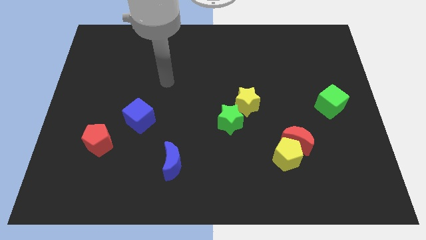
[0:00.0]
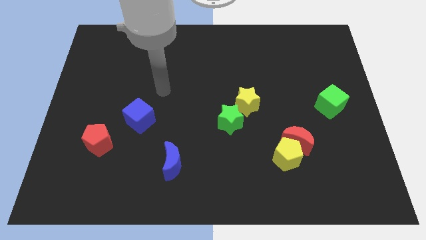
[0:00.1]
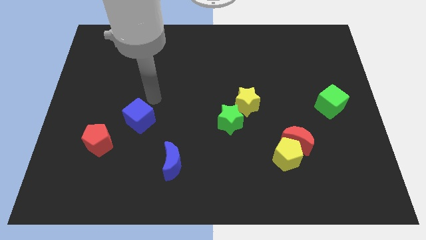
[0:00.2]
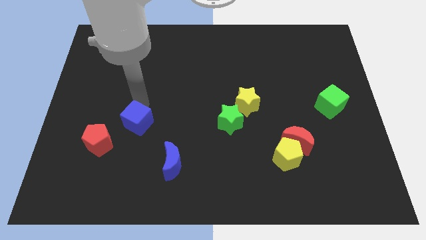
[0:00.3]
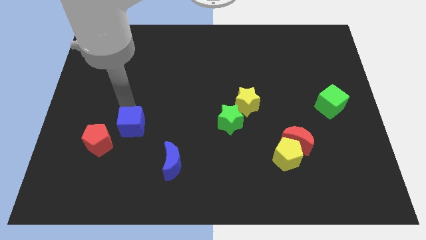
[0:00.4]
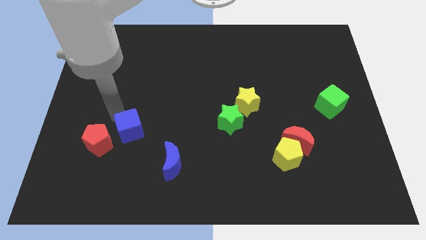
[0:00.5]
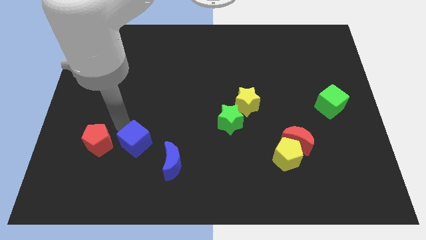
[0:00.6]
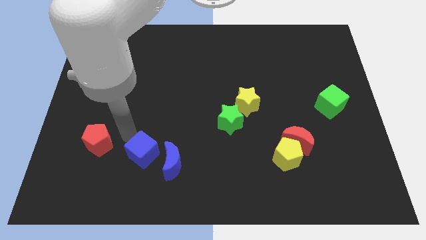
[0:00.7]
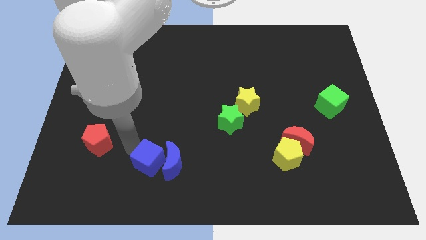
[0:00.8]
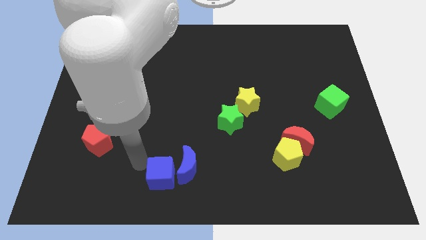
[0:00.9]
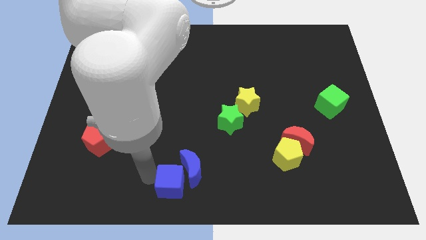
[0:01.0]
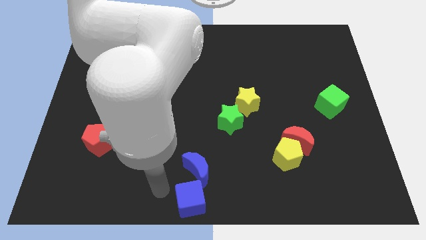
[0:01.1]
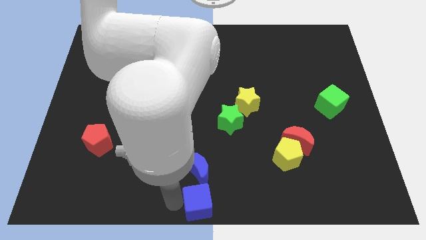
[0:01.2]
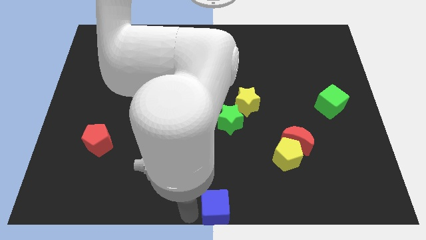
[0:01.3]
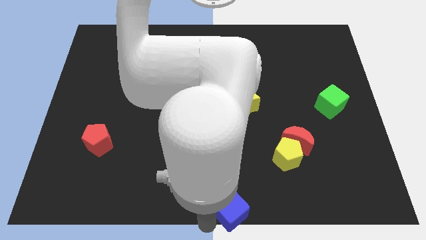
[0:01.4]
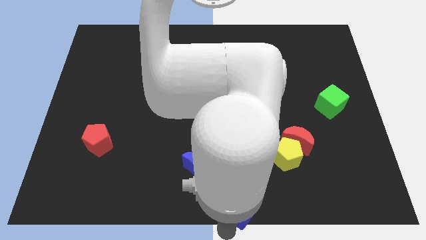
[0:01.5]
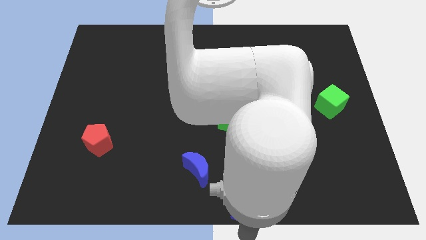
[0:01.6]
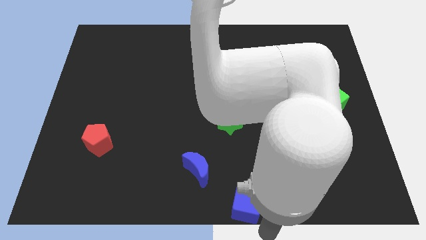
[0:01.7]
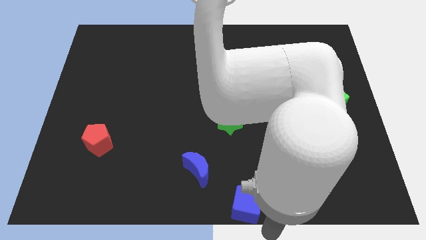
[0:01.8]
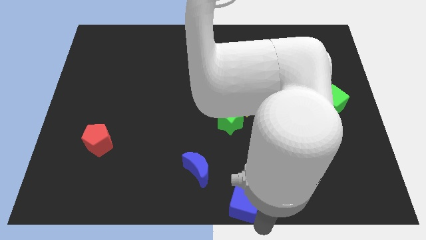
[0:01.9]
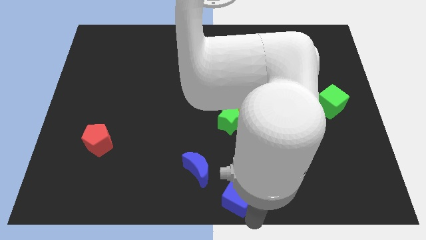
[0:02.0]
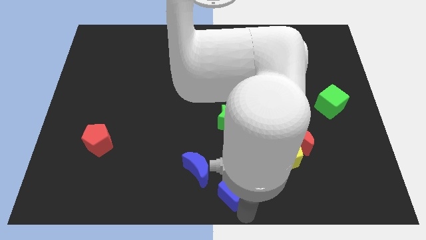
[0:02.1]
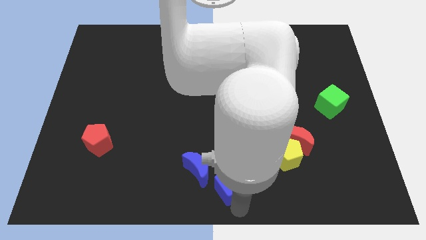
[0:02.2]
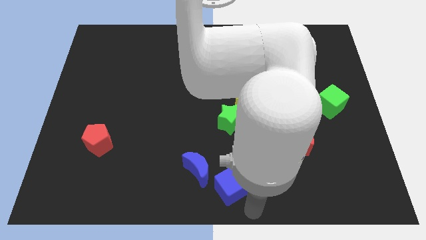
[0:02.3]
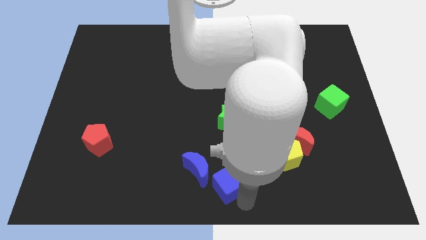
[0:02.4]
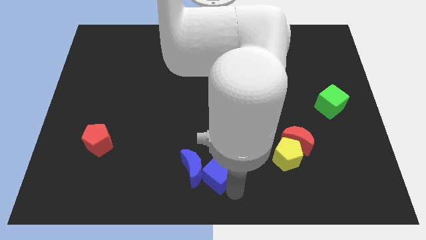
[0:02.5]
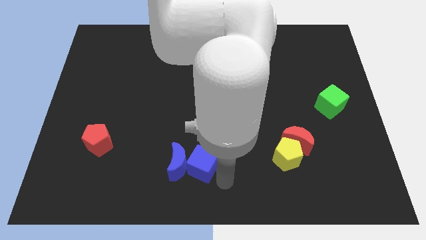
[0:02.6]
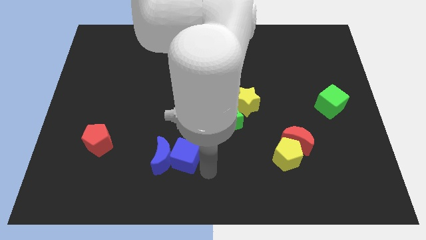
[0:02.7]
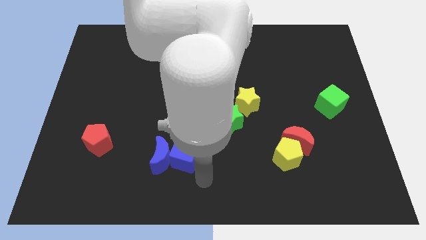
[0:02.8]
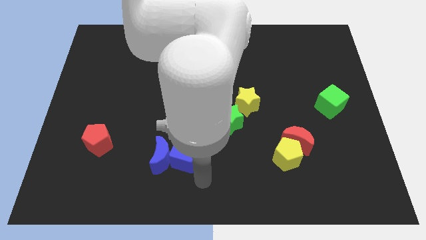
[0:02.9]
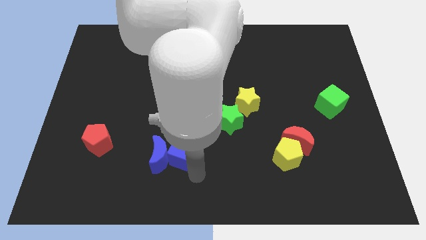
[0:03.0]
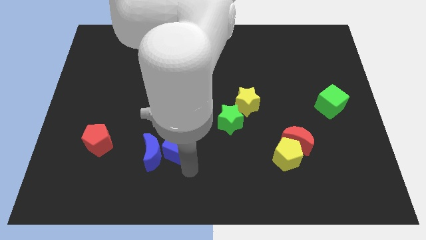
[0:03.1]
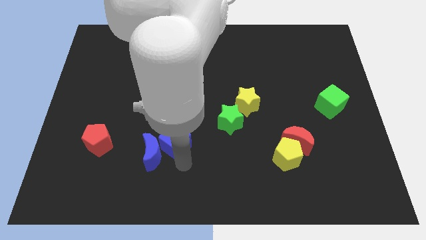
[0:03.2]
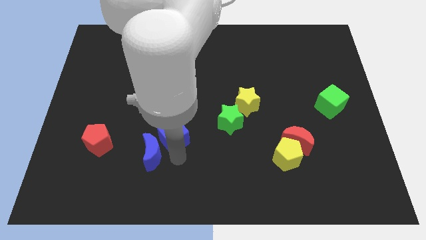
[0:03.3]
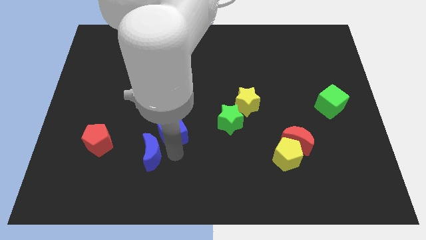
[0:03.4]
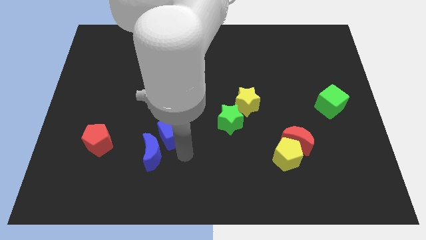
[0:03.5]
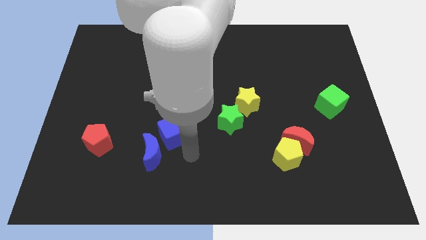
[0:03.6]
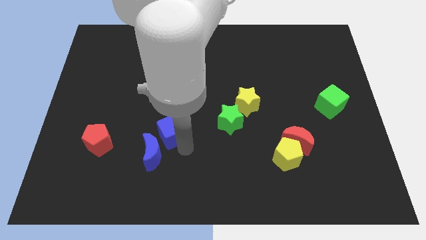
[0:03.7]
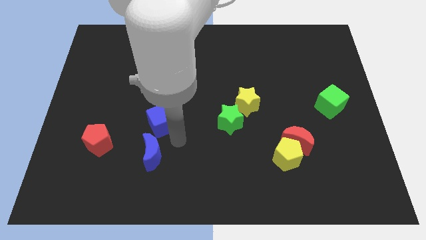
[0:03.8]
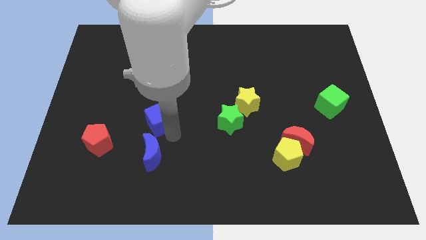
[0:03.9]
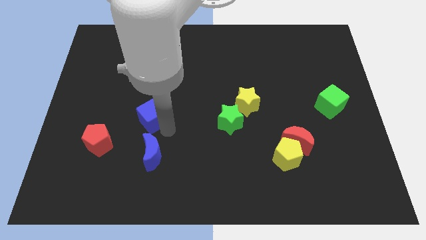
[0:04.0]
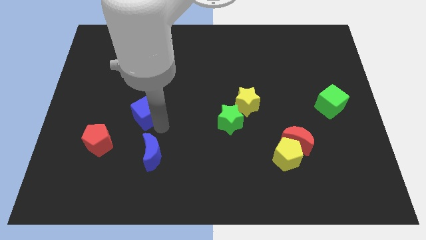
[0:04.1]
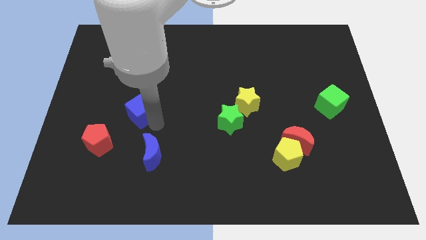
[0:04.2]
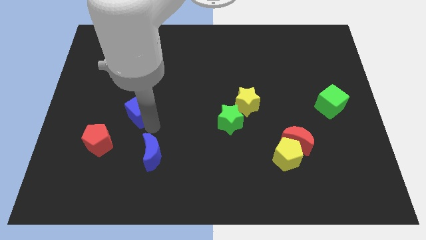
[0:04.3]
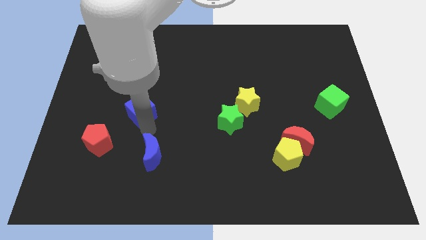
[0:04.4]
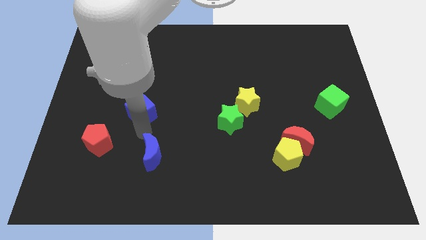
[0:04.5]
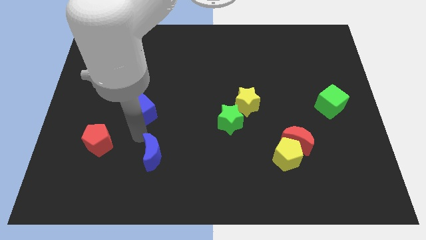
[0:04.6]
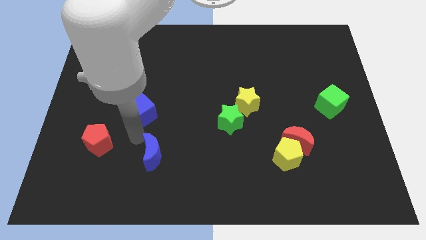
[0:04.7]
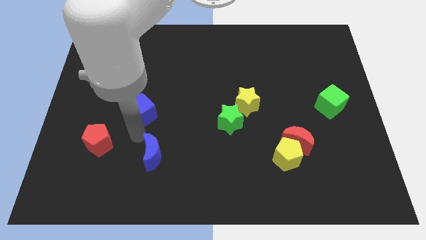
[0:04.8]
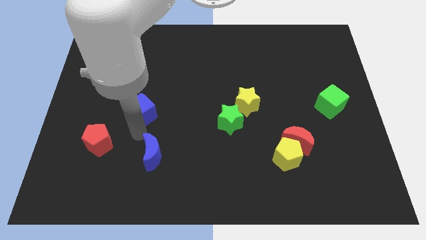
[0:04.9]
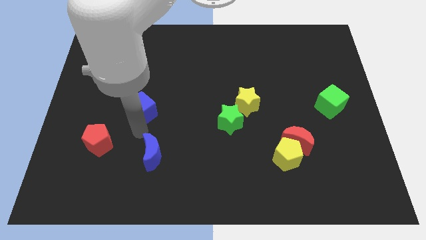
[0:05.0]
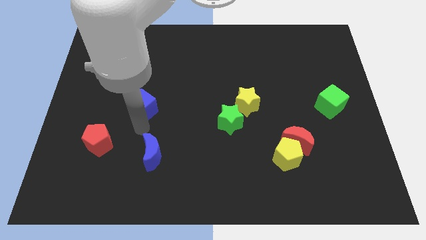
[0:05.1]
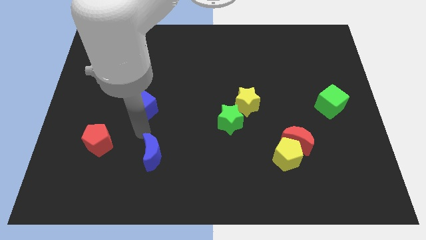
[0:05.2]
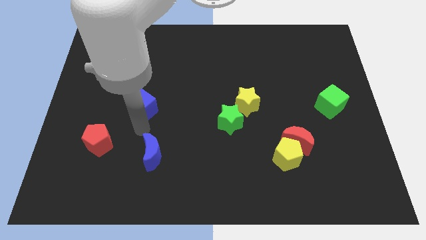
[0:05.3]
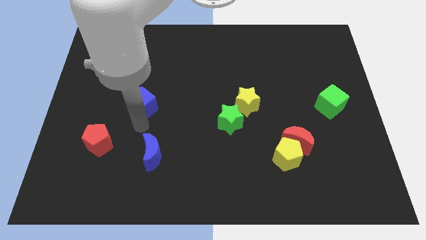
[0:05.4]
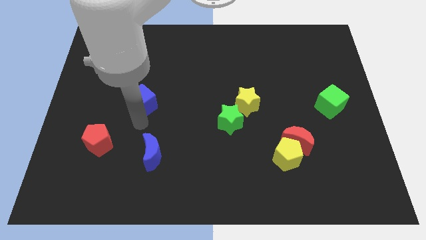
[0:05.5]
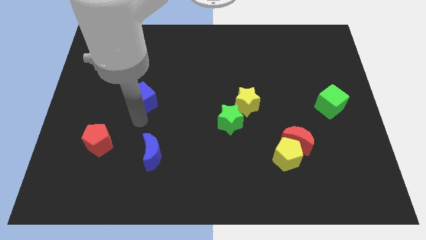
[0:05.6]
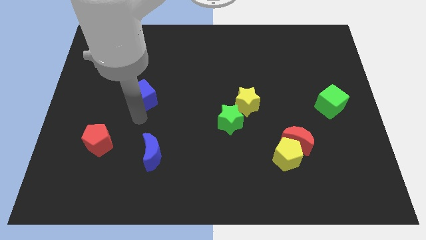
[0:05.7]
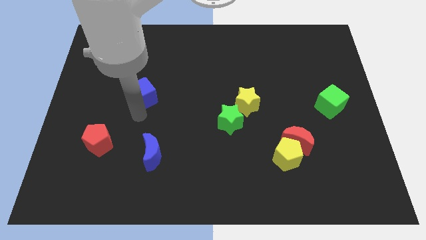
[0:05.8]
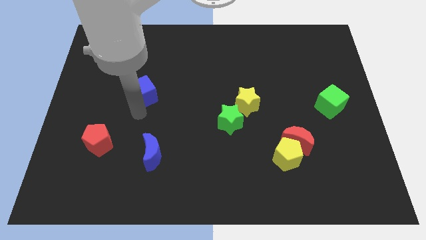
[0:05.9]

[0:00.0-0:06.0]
move the blue cube upwards slightly

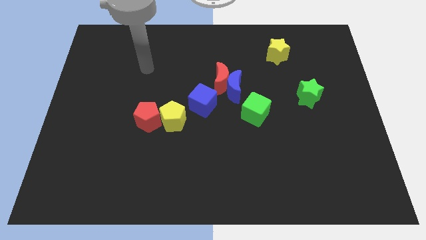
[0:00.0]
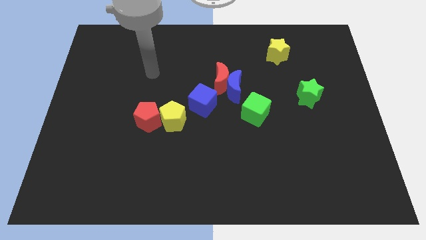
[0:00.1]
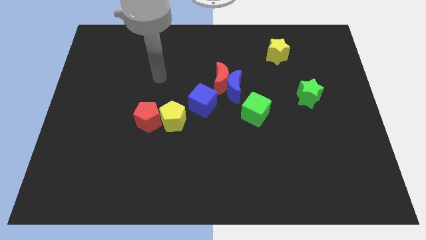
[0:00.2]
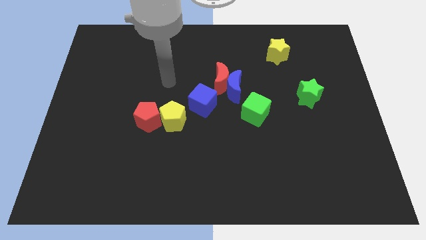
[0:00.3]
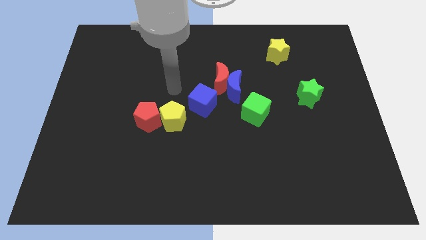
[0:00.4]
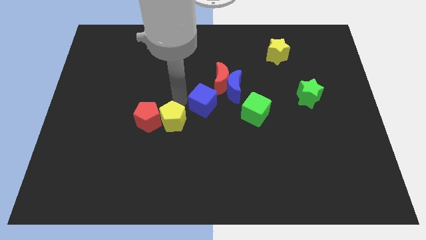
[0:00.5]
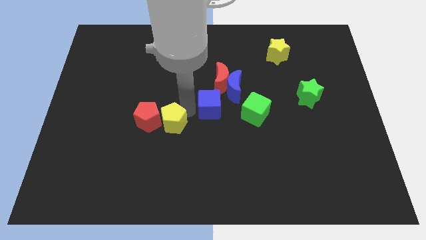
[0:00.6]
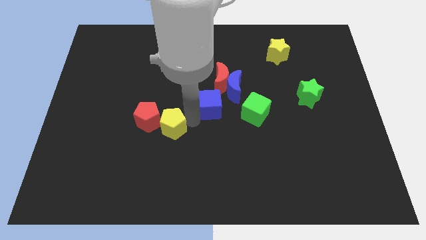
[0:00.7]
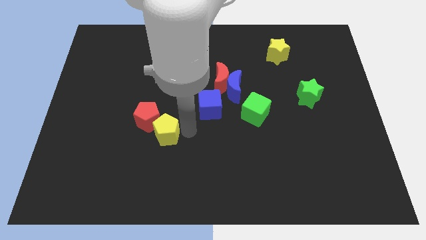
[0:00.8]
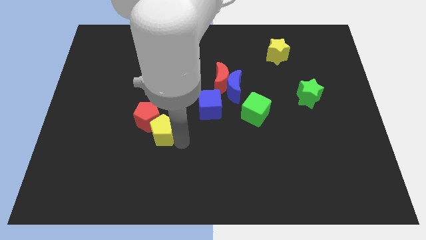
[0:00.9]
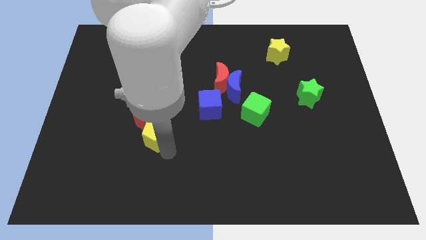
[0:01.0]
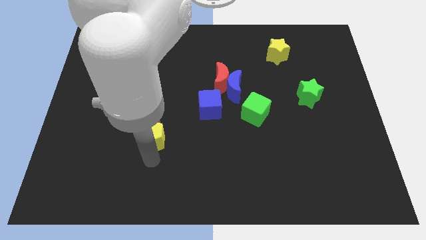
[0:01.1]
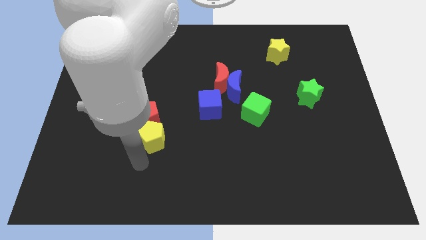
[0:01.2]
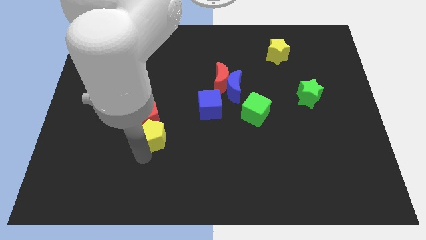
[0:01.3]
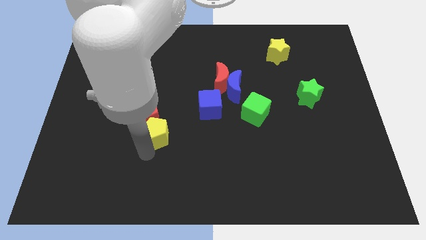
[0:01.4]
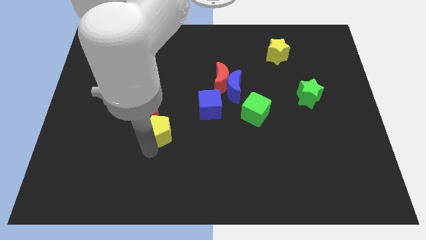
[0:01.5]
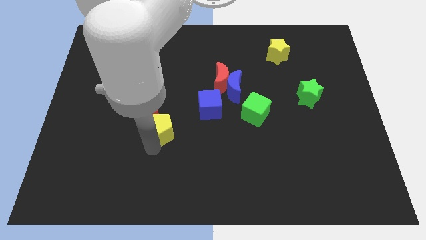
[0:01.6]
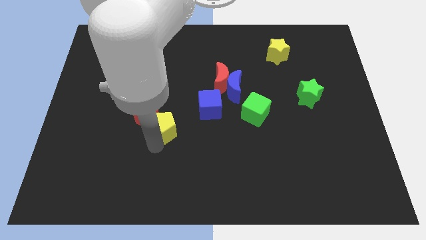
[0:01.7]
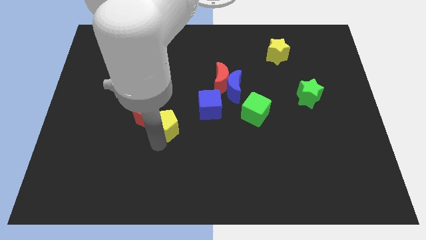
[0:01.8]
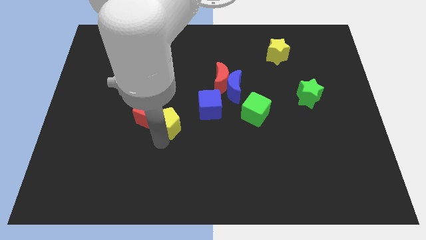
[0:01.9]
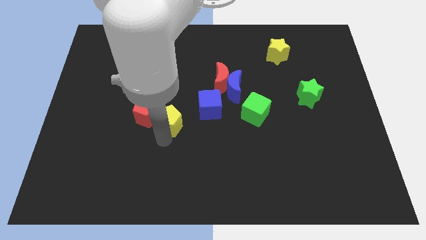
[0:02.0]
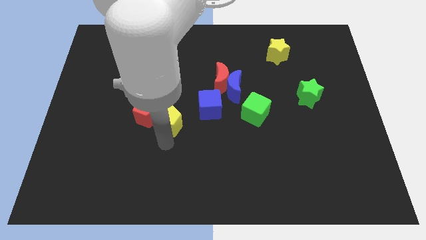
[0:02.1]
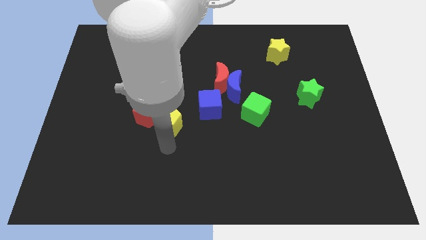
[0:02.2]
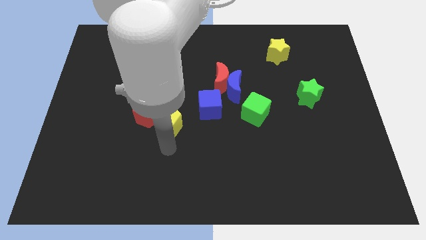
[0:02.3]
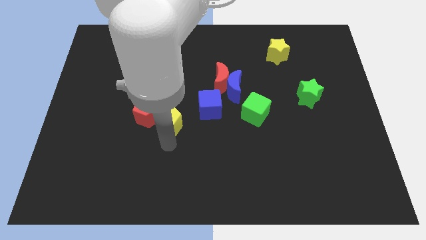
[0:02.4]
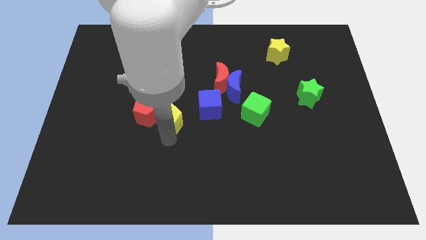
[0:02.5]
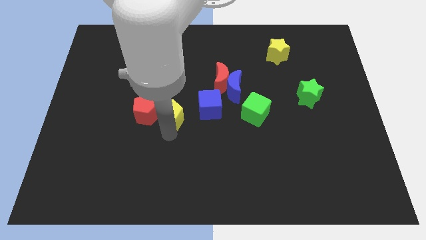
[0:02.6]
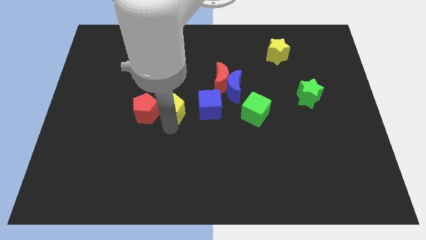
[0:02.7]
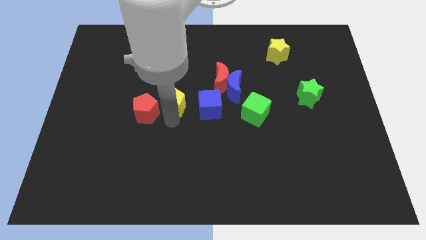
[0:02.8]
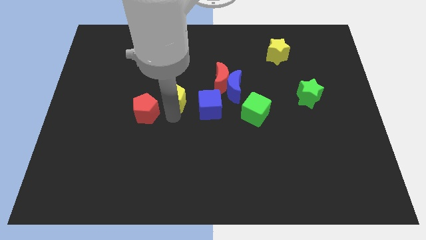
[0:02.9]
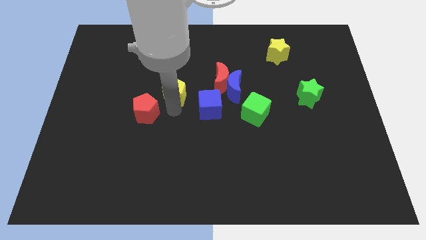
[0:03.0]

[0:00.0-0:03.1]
move the yellow pentagon a little bit up
